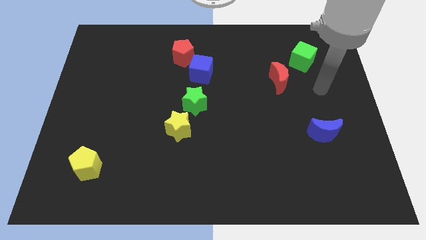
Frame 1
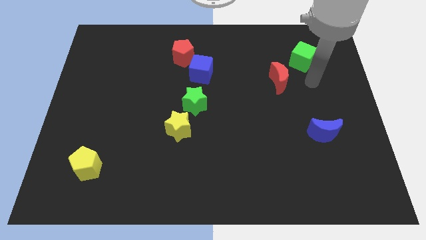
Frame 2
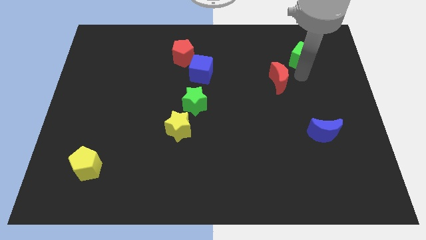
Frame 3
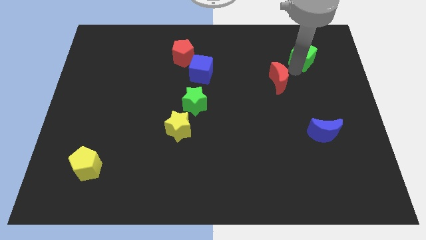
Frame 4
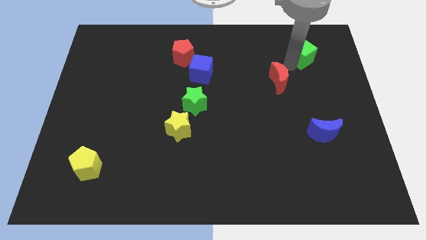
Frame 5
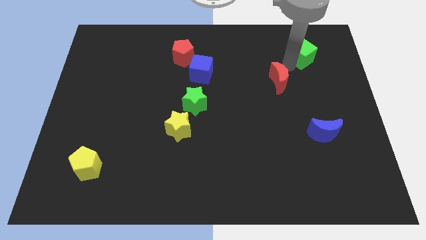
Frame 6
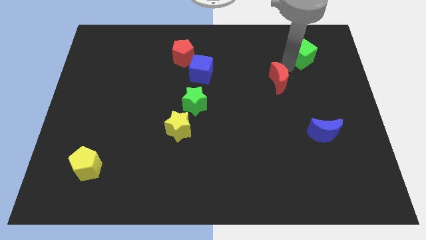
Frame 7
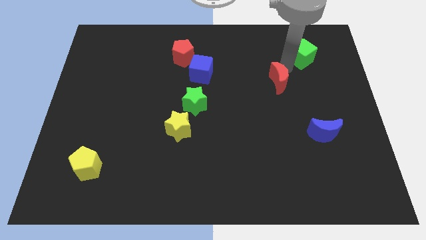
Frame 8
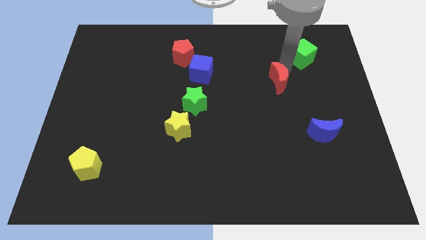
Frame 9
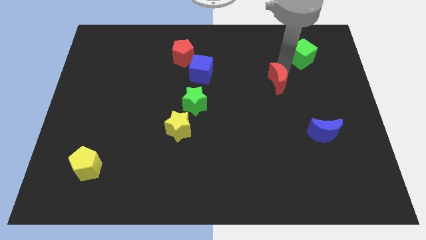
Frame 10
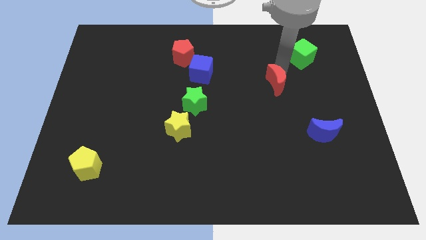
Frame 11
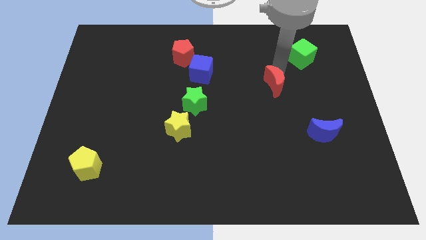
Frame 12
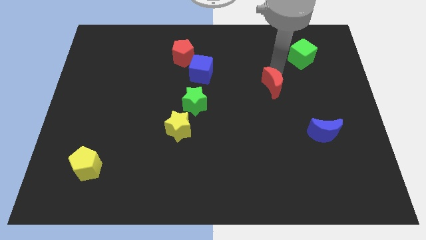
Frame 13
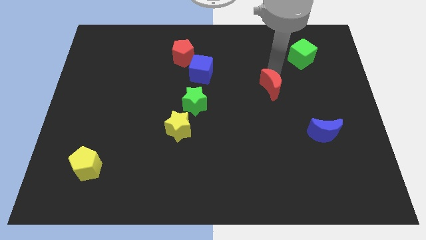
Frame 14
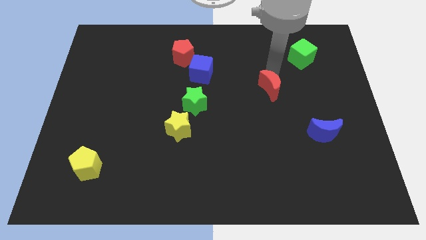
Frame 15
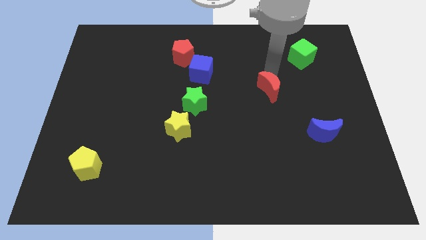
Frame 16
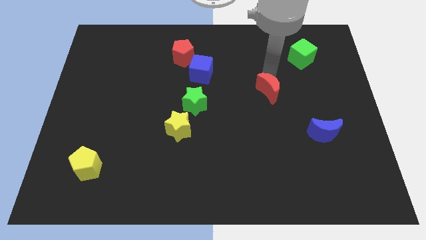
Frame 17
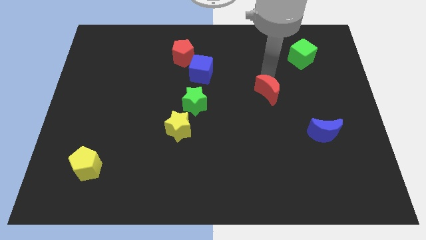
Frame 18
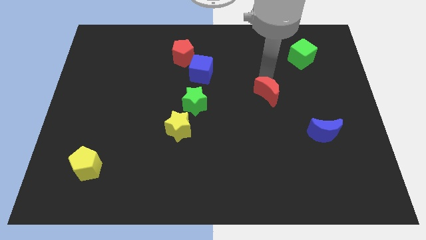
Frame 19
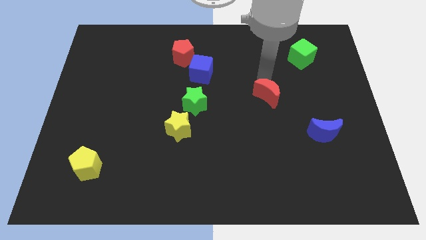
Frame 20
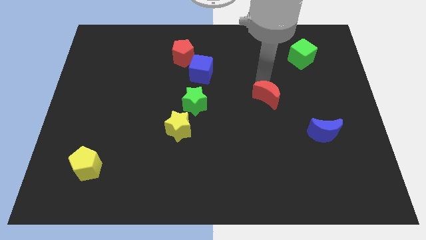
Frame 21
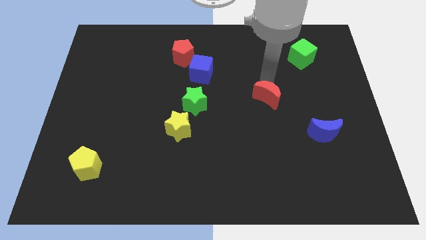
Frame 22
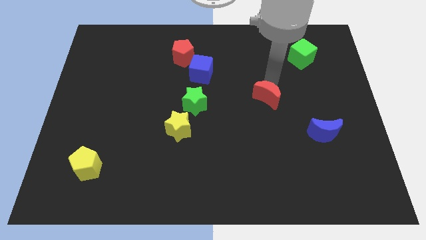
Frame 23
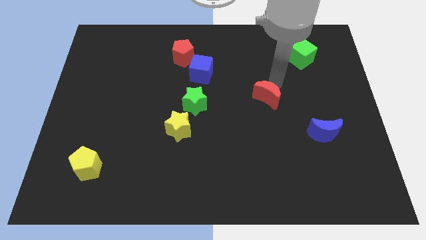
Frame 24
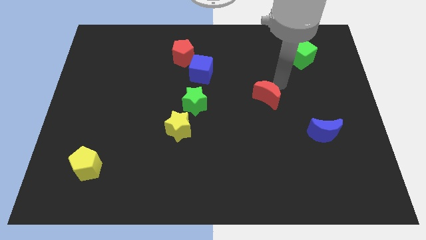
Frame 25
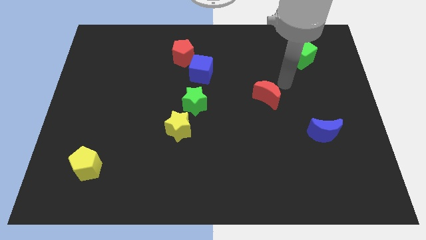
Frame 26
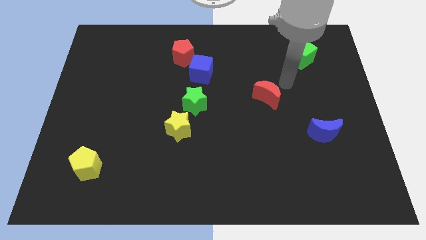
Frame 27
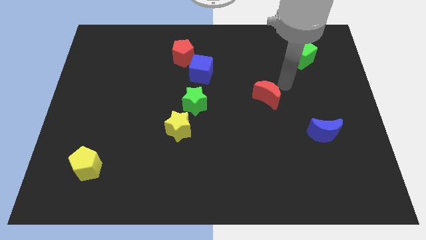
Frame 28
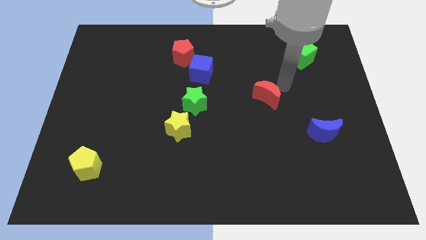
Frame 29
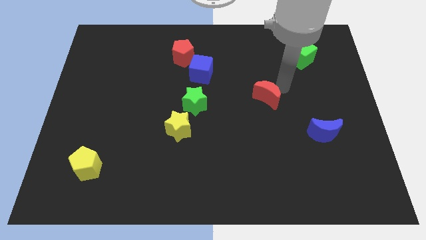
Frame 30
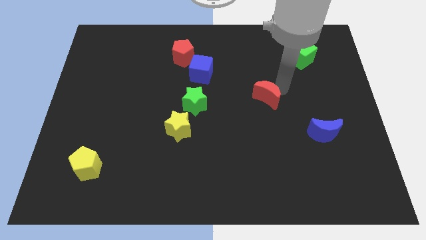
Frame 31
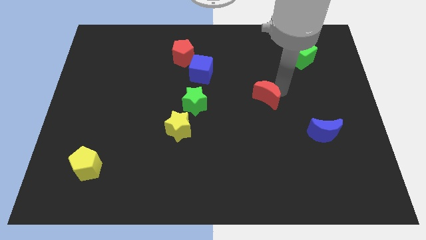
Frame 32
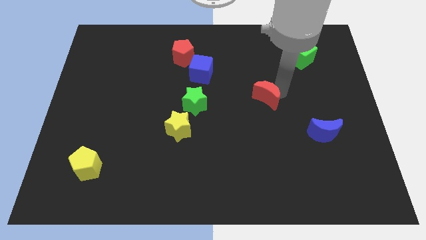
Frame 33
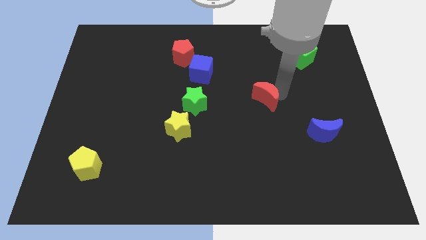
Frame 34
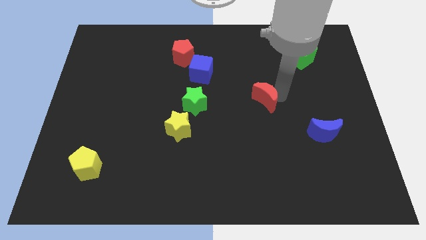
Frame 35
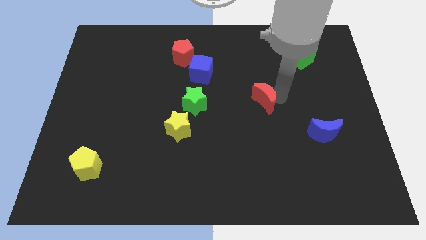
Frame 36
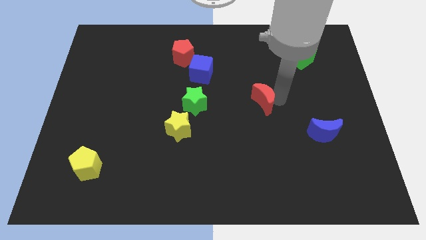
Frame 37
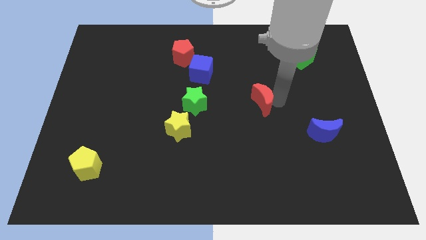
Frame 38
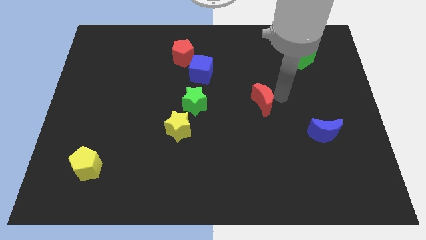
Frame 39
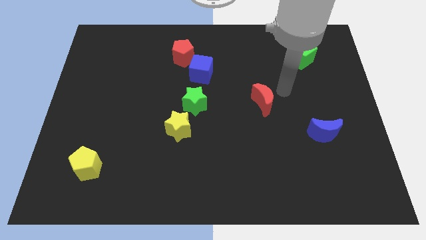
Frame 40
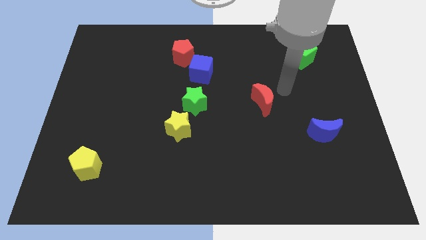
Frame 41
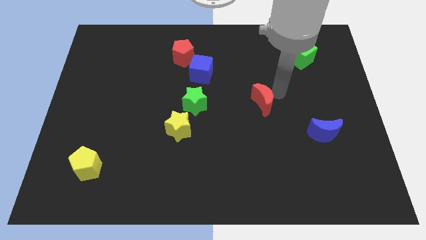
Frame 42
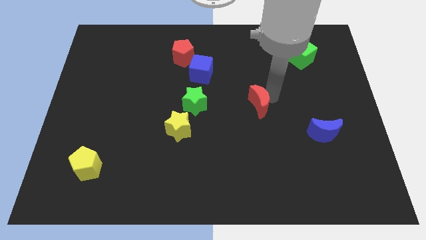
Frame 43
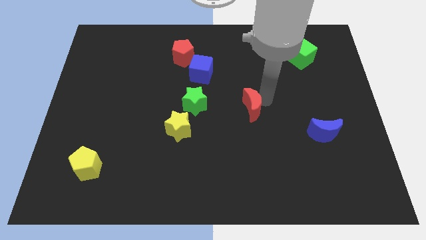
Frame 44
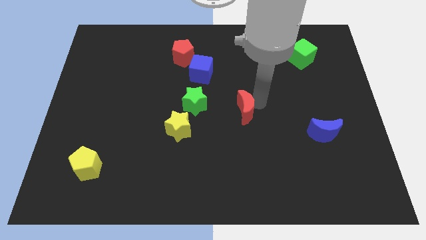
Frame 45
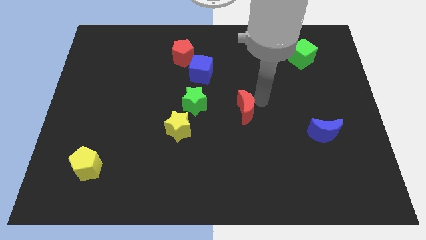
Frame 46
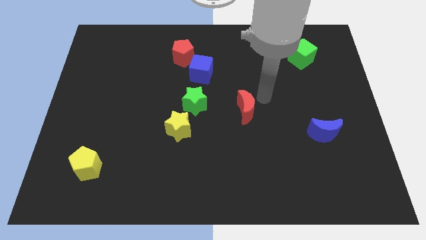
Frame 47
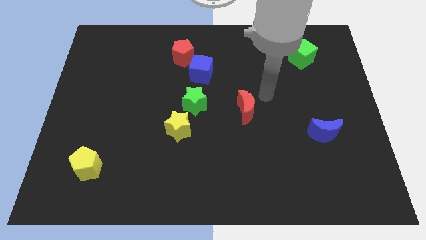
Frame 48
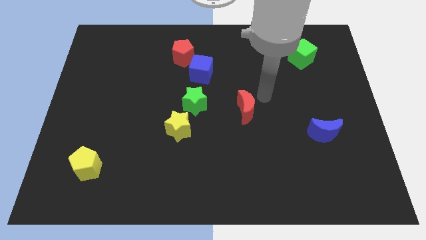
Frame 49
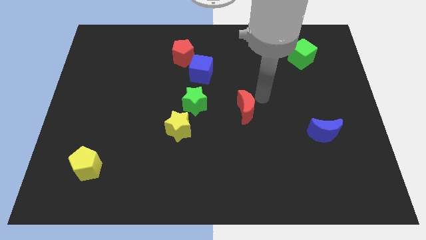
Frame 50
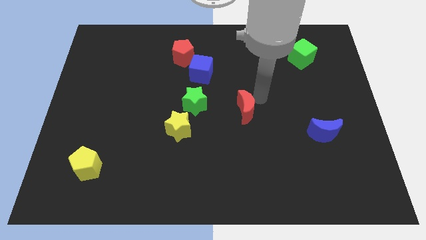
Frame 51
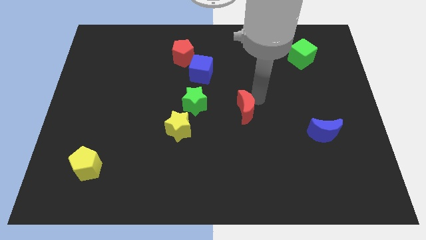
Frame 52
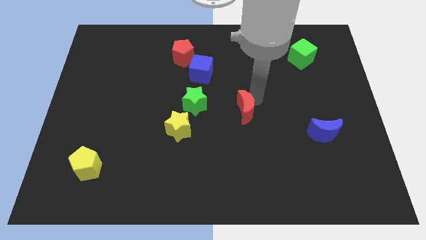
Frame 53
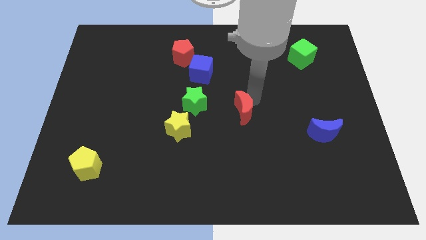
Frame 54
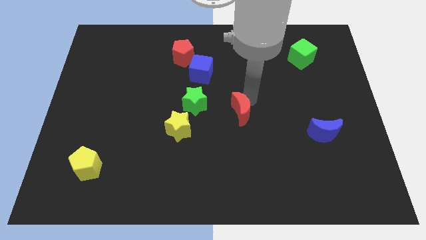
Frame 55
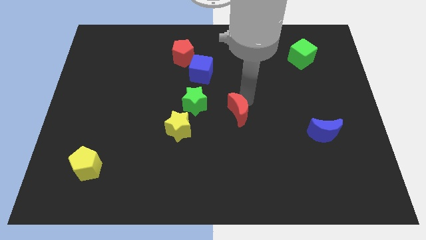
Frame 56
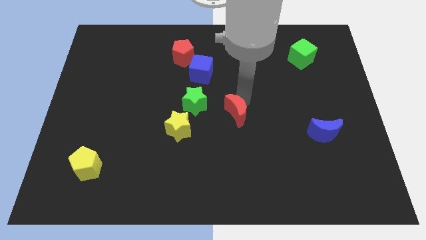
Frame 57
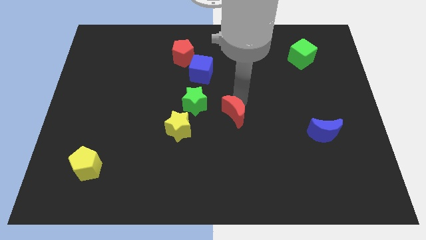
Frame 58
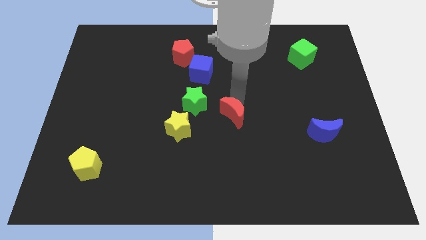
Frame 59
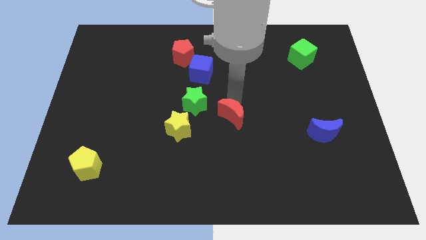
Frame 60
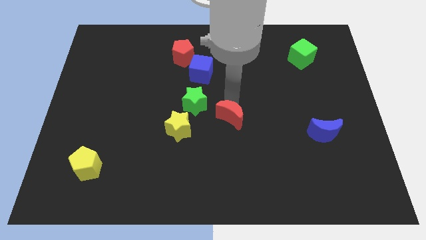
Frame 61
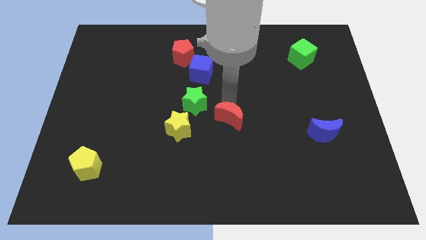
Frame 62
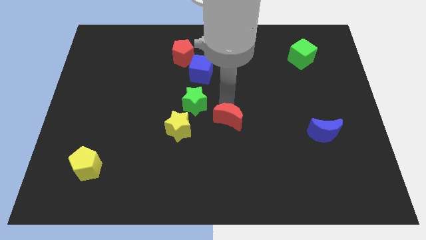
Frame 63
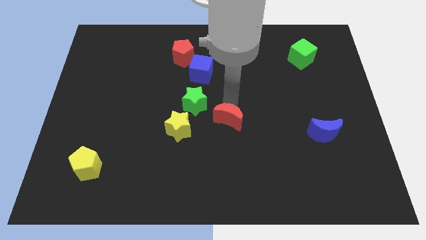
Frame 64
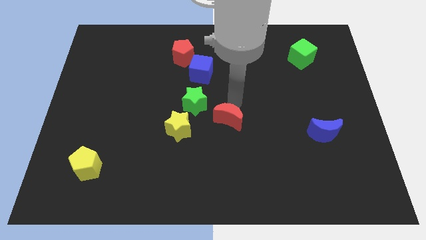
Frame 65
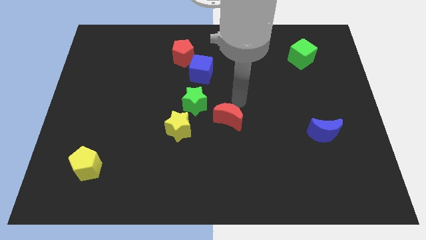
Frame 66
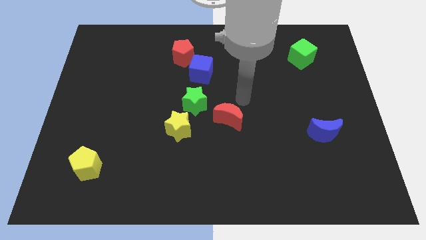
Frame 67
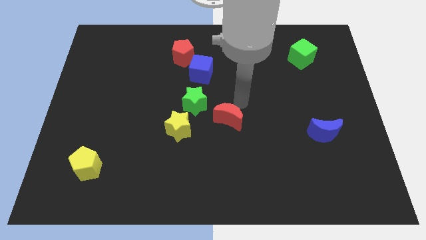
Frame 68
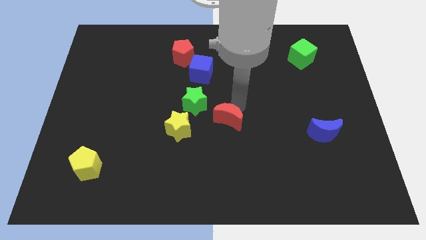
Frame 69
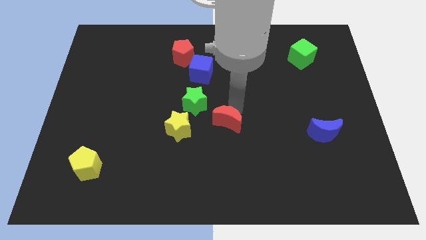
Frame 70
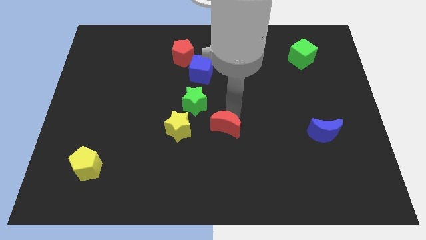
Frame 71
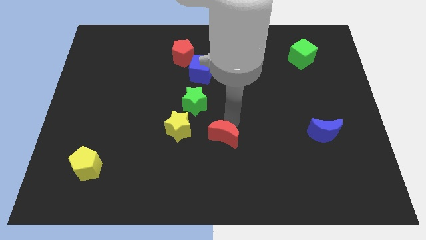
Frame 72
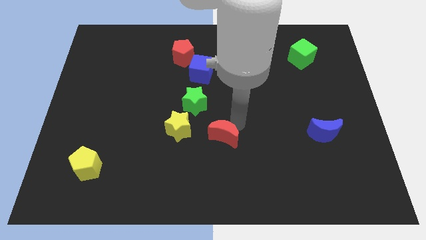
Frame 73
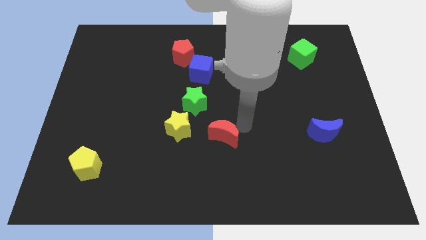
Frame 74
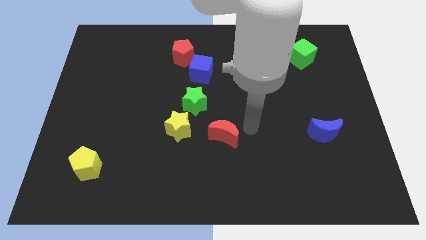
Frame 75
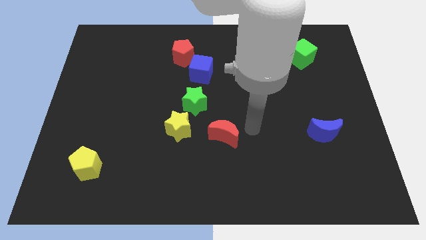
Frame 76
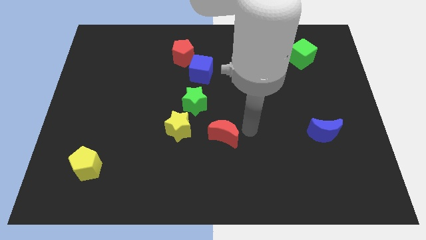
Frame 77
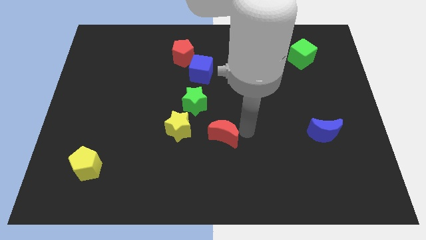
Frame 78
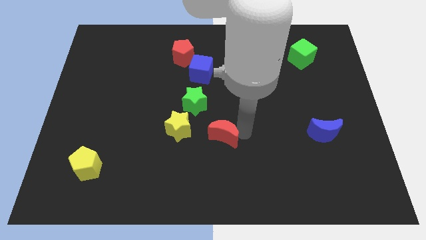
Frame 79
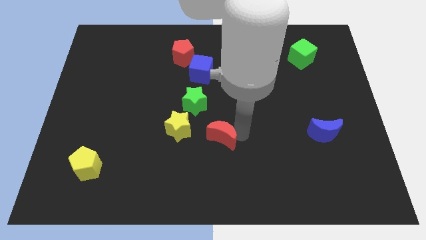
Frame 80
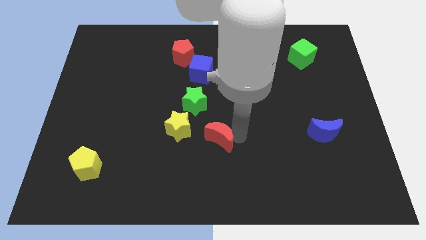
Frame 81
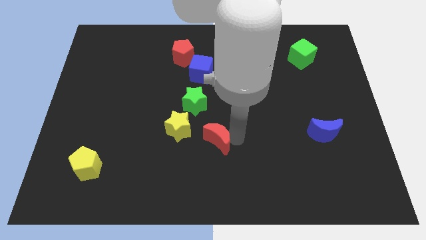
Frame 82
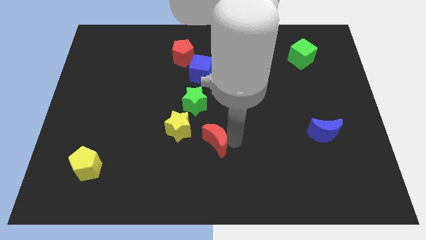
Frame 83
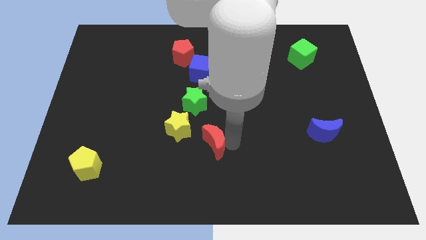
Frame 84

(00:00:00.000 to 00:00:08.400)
move the red moon below the green star
